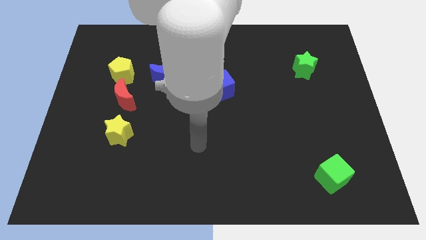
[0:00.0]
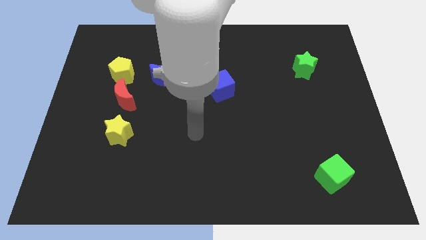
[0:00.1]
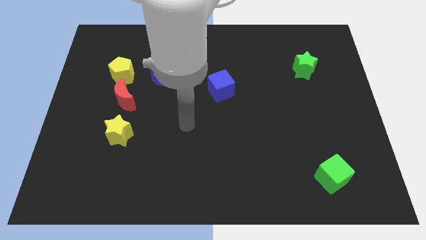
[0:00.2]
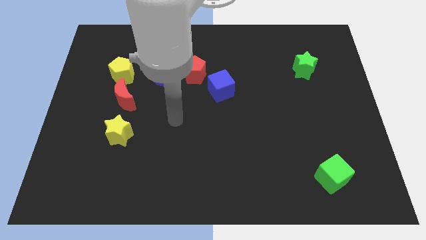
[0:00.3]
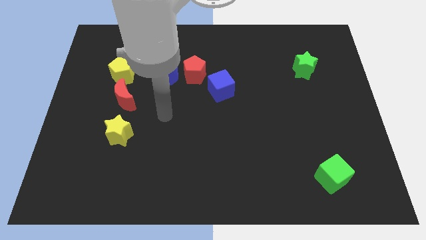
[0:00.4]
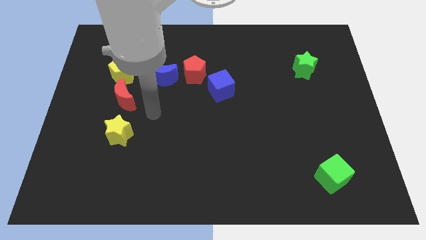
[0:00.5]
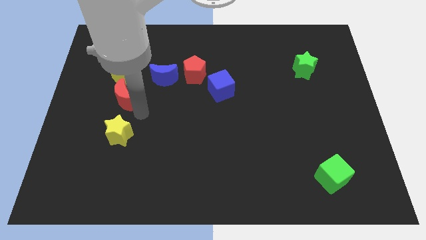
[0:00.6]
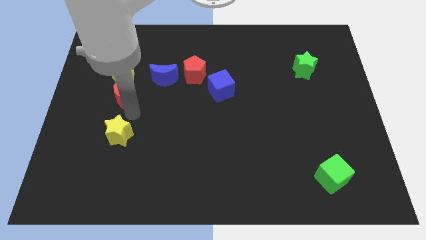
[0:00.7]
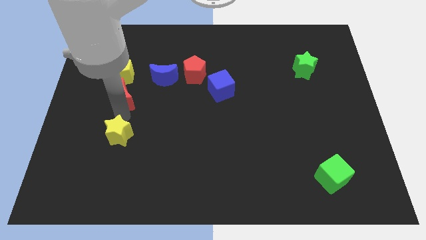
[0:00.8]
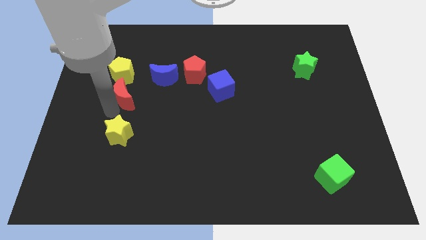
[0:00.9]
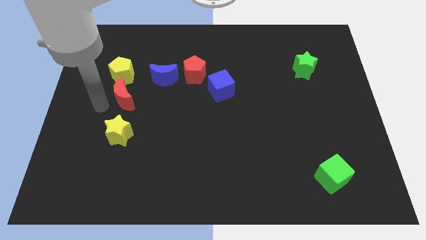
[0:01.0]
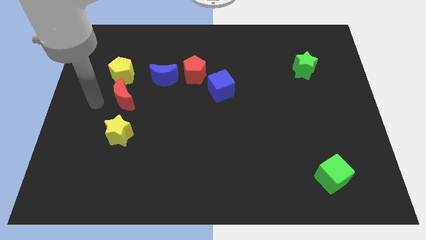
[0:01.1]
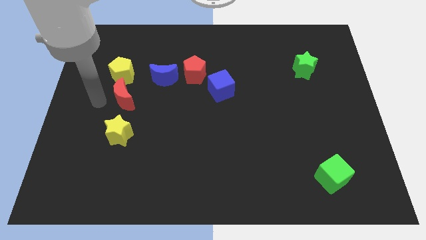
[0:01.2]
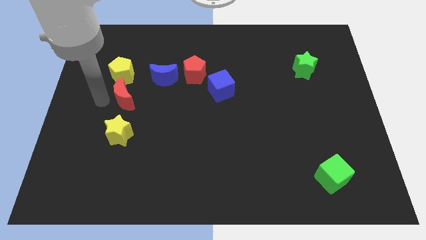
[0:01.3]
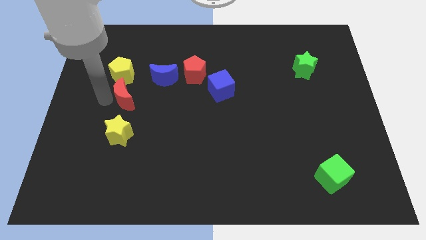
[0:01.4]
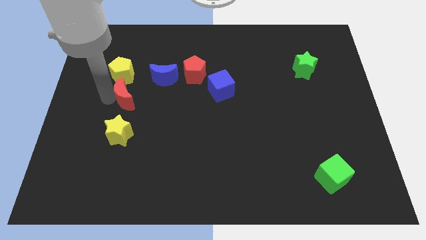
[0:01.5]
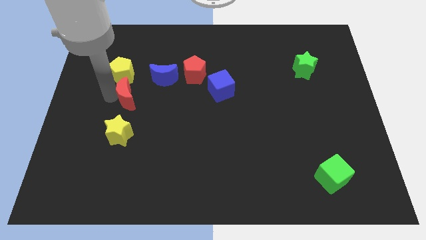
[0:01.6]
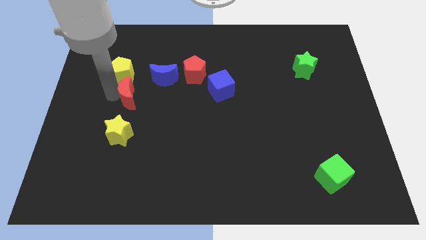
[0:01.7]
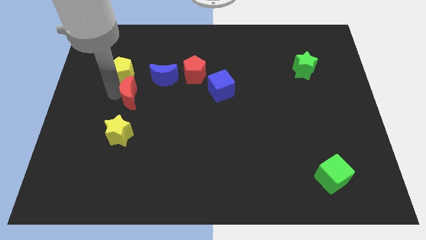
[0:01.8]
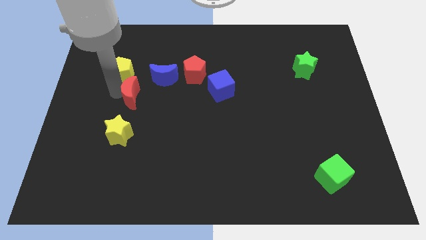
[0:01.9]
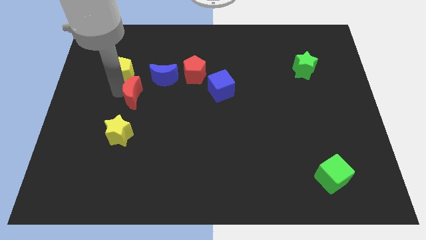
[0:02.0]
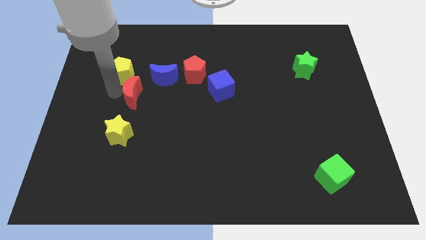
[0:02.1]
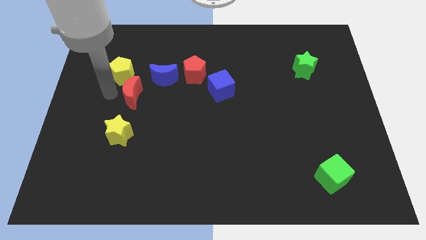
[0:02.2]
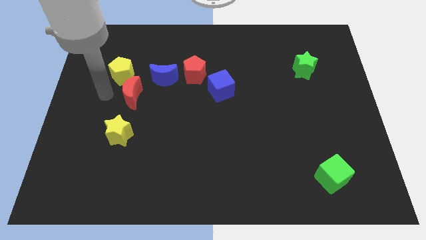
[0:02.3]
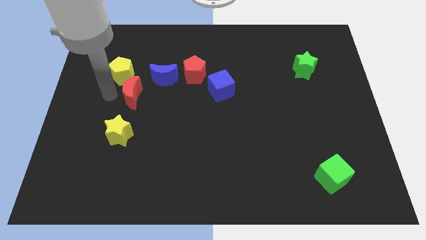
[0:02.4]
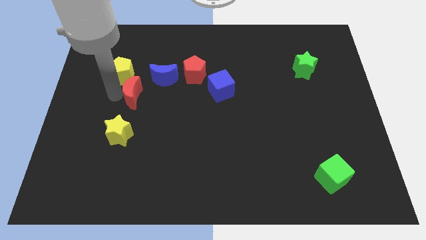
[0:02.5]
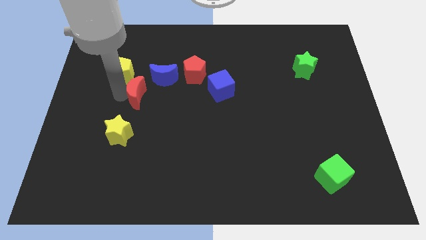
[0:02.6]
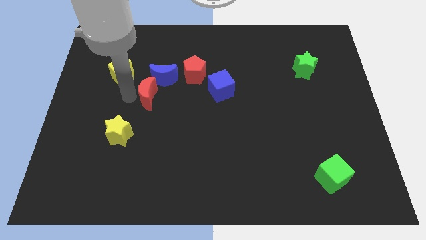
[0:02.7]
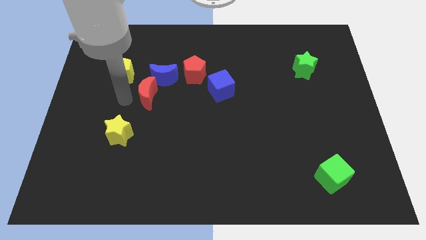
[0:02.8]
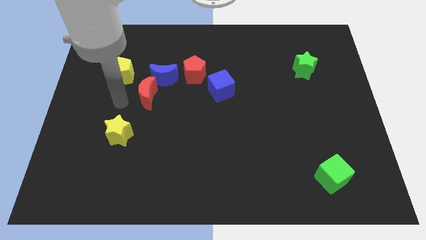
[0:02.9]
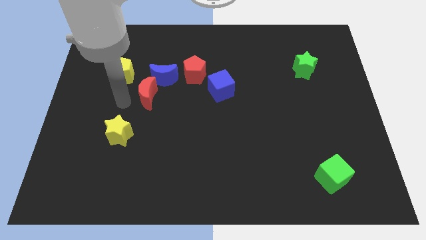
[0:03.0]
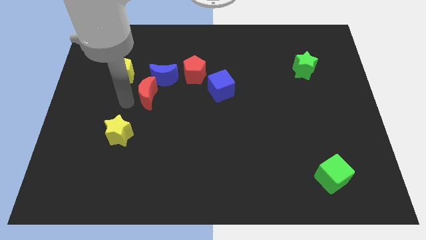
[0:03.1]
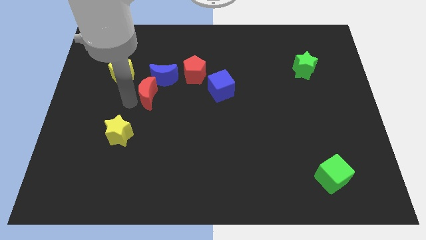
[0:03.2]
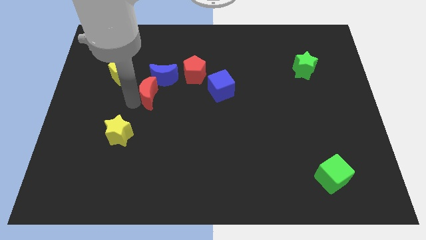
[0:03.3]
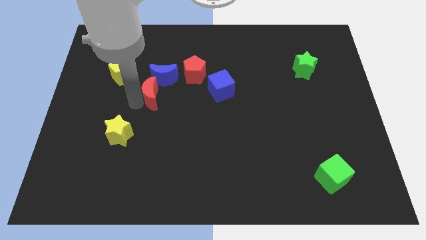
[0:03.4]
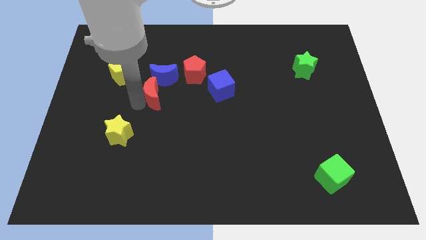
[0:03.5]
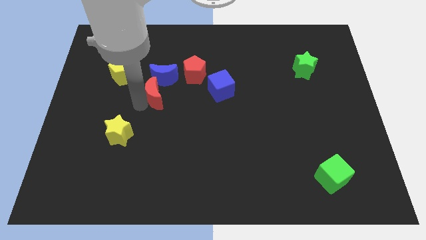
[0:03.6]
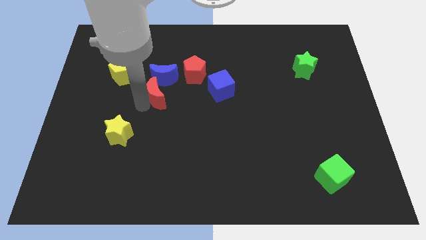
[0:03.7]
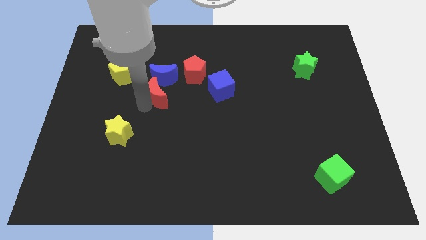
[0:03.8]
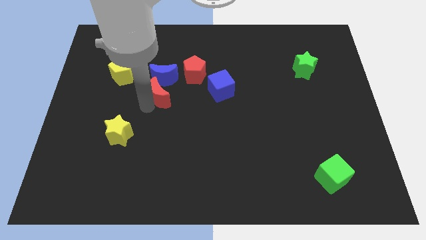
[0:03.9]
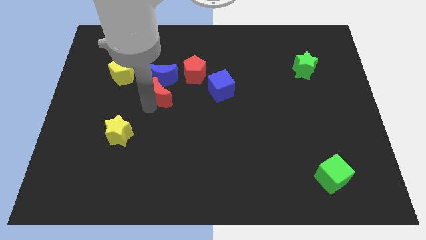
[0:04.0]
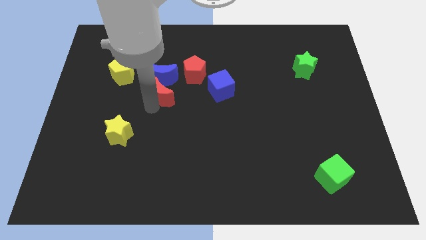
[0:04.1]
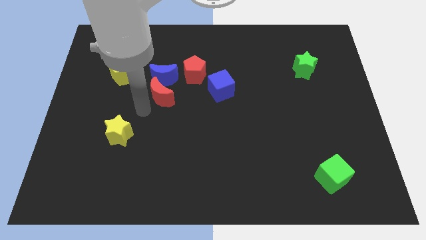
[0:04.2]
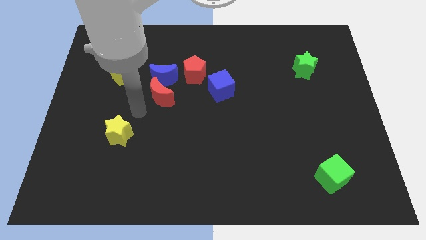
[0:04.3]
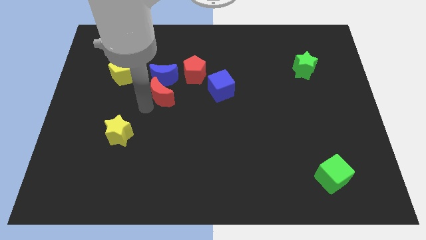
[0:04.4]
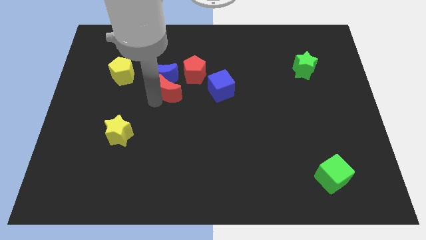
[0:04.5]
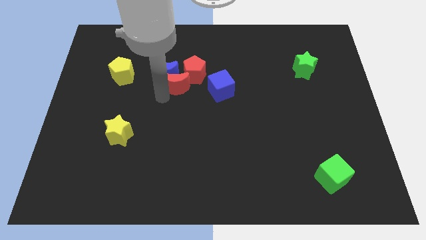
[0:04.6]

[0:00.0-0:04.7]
push the red moon to the red pentagon

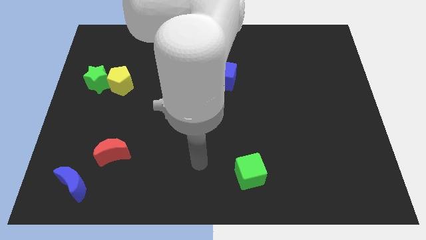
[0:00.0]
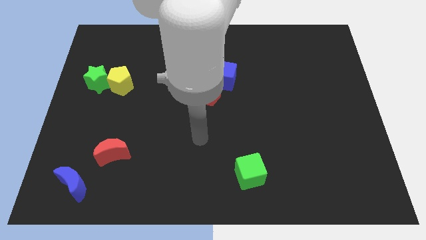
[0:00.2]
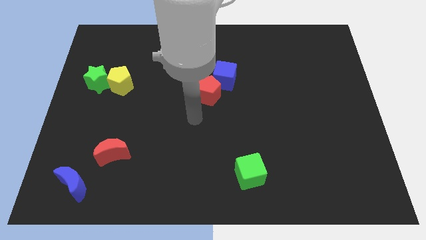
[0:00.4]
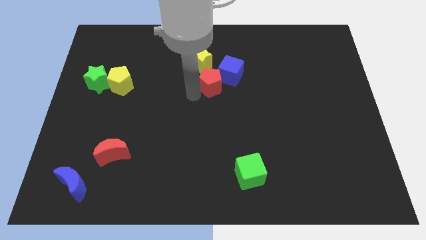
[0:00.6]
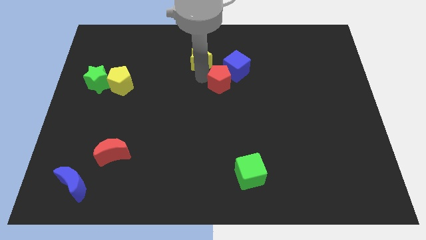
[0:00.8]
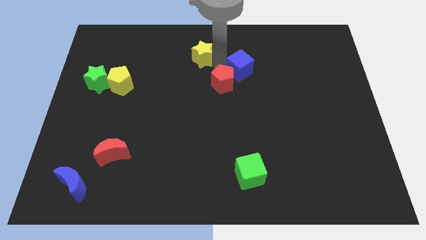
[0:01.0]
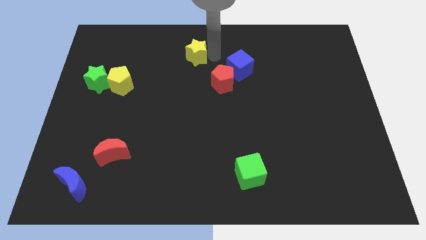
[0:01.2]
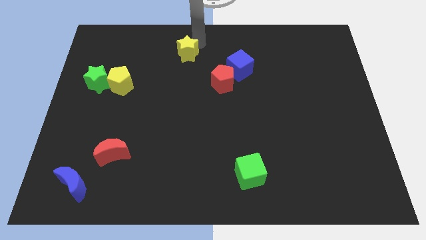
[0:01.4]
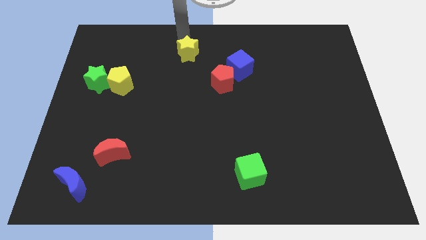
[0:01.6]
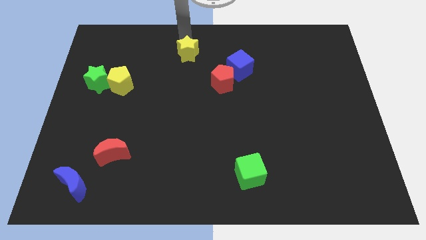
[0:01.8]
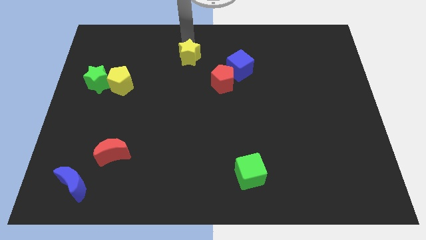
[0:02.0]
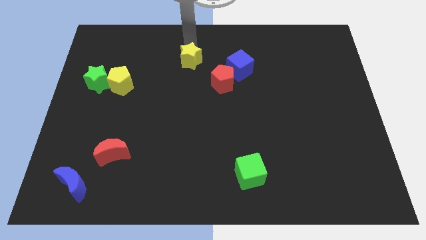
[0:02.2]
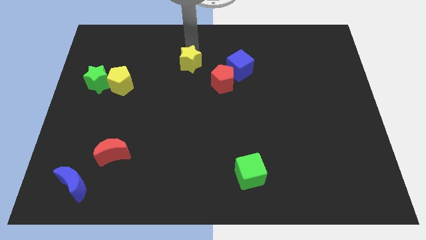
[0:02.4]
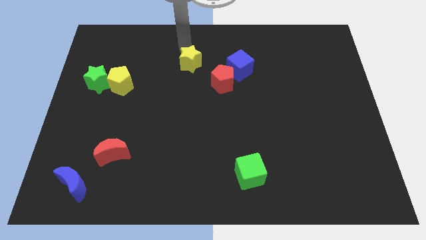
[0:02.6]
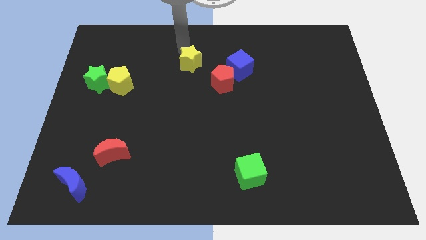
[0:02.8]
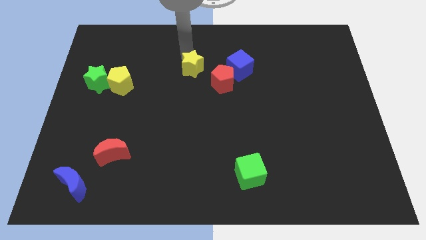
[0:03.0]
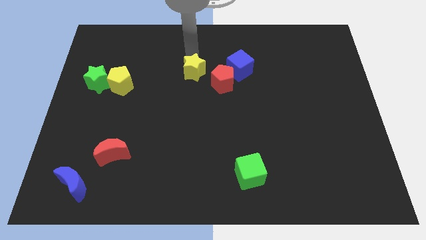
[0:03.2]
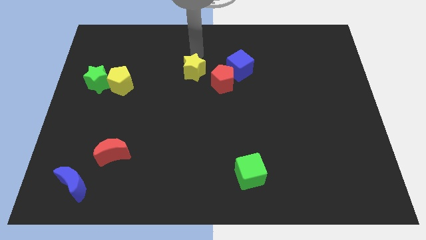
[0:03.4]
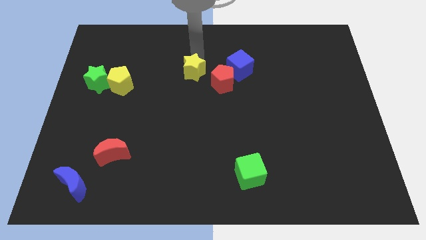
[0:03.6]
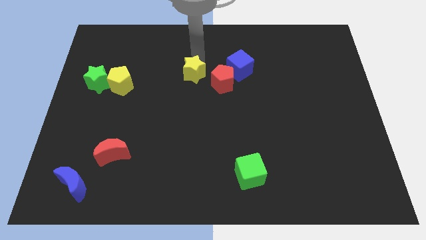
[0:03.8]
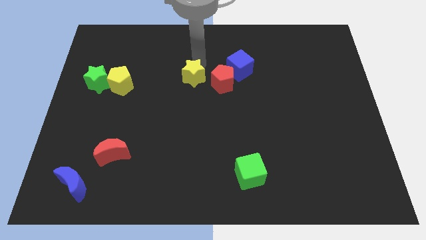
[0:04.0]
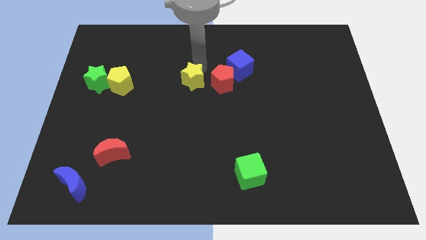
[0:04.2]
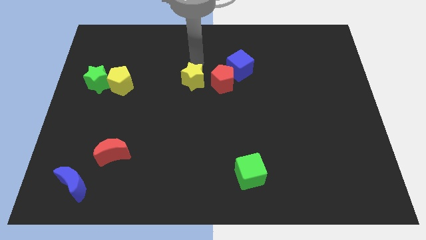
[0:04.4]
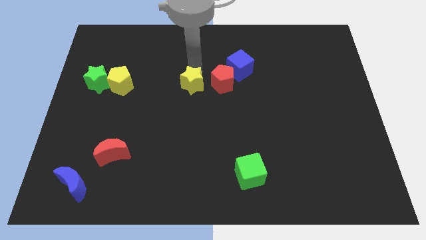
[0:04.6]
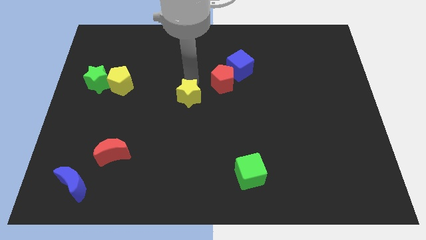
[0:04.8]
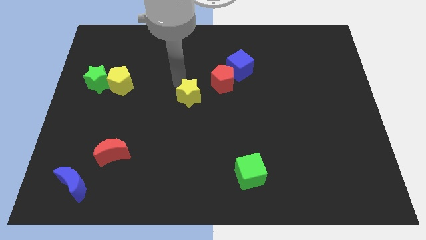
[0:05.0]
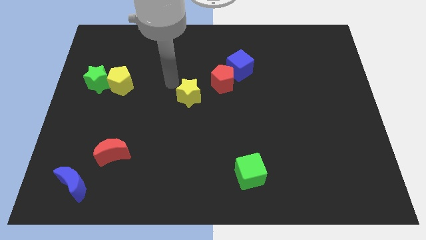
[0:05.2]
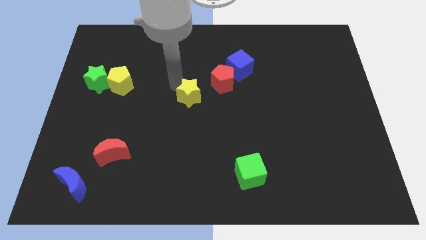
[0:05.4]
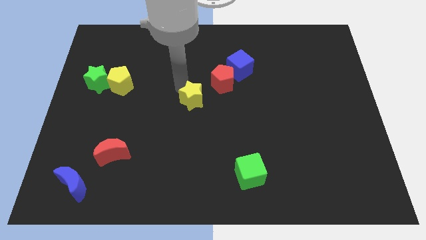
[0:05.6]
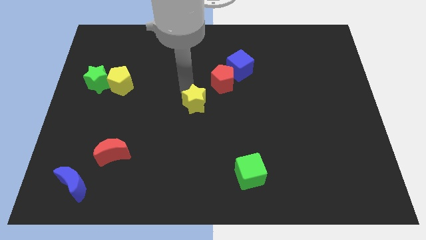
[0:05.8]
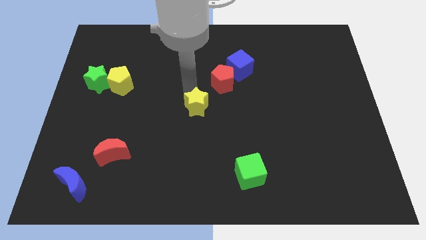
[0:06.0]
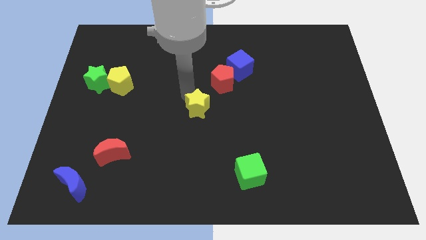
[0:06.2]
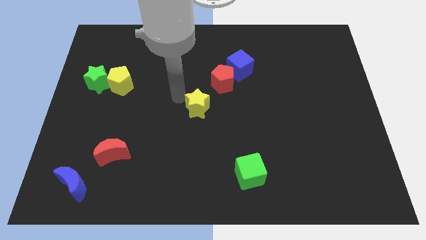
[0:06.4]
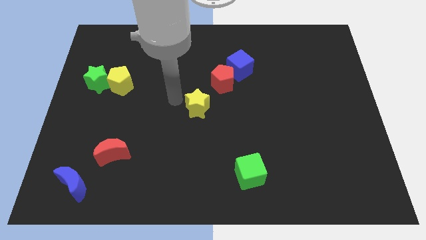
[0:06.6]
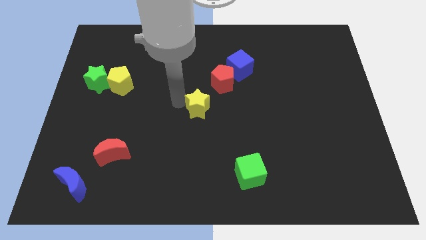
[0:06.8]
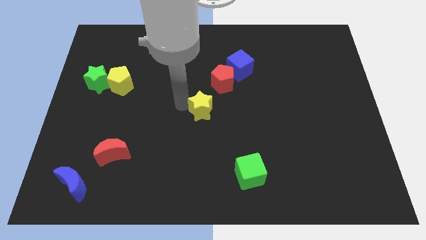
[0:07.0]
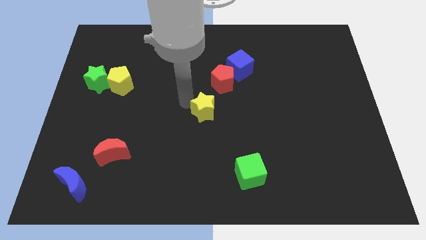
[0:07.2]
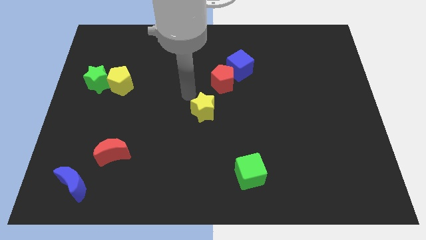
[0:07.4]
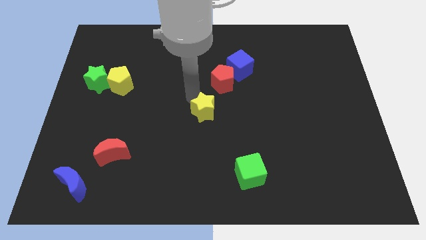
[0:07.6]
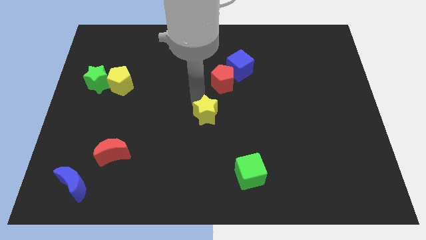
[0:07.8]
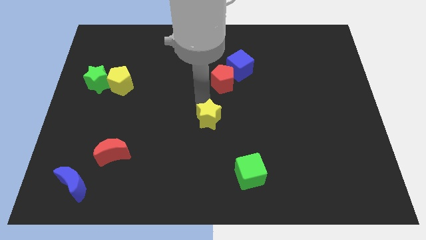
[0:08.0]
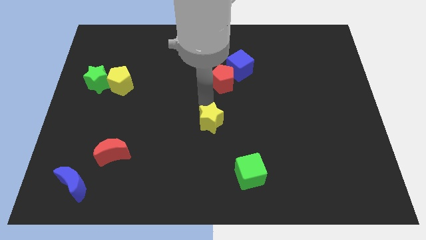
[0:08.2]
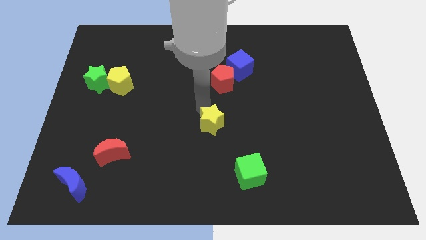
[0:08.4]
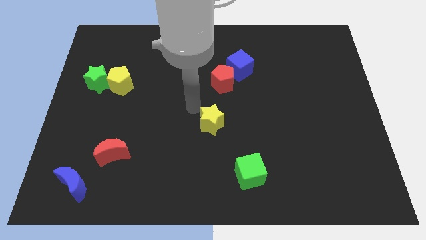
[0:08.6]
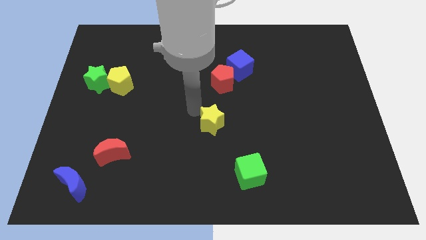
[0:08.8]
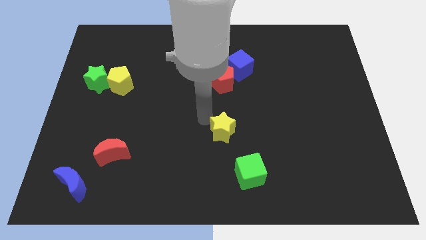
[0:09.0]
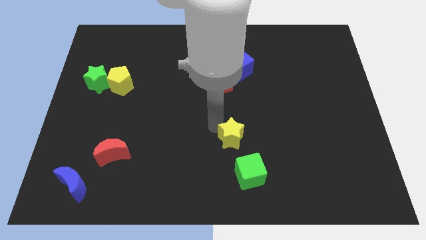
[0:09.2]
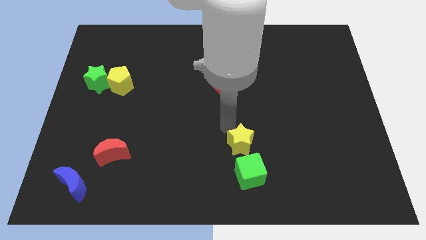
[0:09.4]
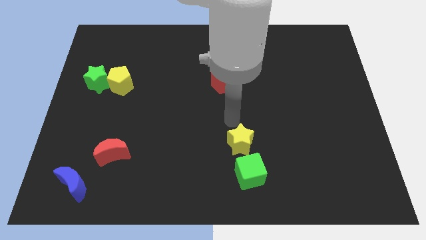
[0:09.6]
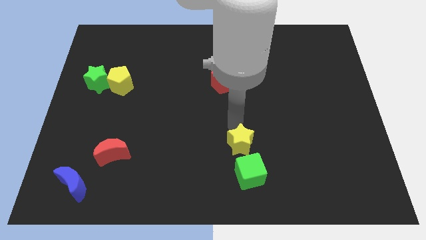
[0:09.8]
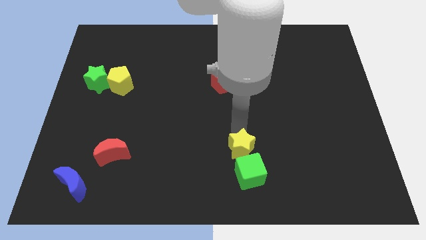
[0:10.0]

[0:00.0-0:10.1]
slide the yellow star next to the green cube
